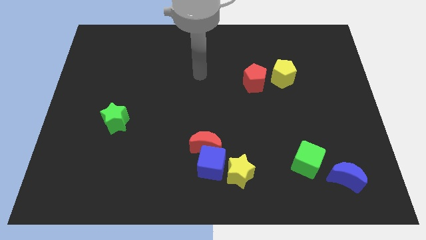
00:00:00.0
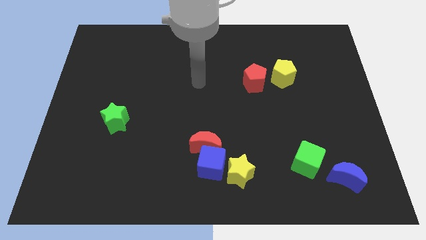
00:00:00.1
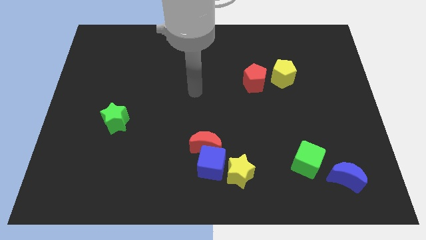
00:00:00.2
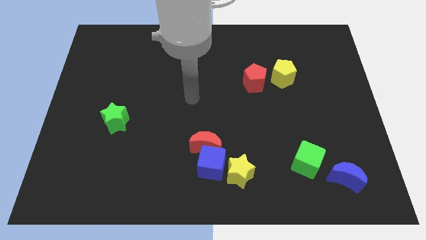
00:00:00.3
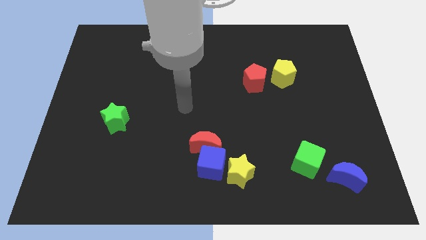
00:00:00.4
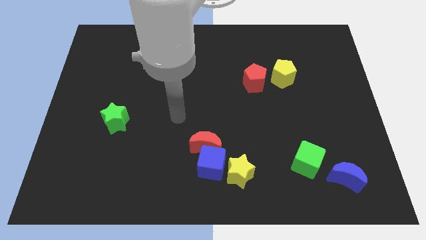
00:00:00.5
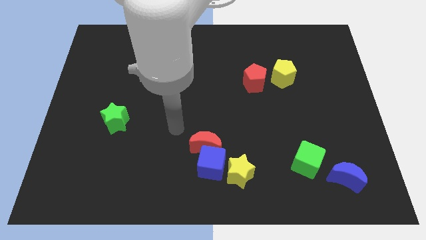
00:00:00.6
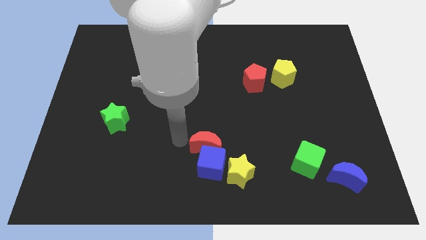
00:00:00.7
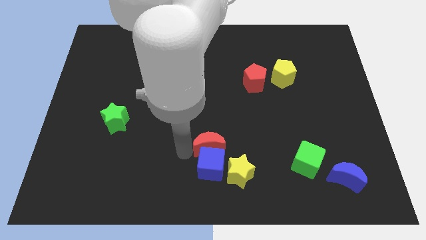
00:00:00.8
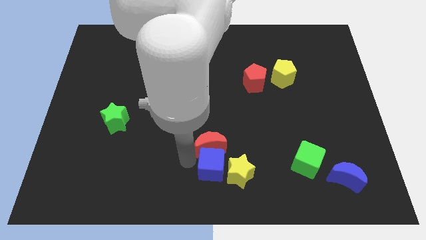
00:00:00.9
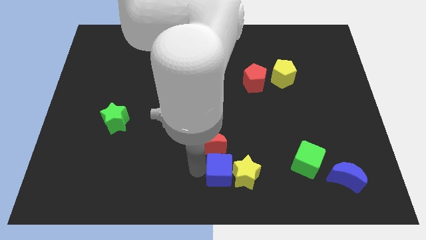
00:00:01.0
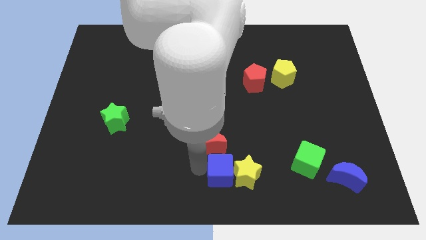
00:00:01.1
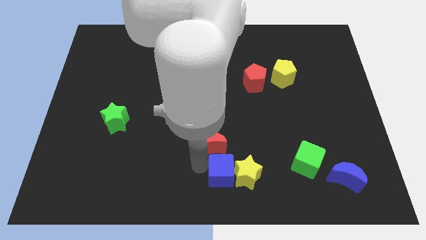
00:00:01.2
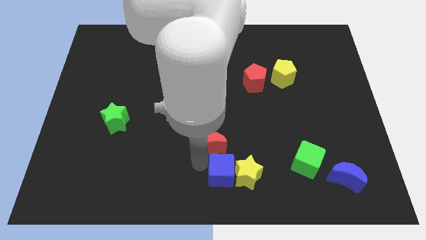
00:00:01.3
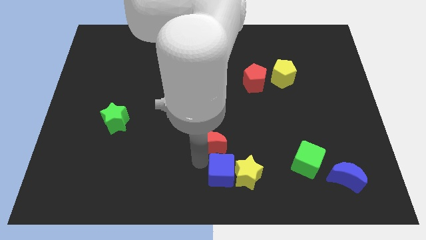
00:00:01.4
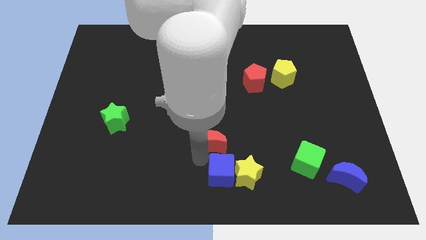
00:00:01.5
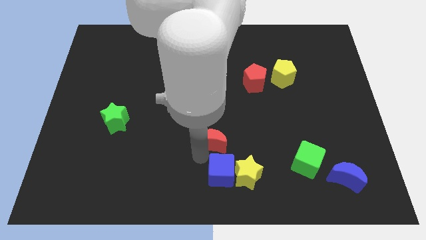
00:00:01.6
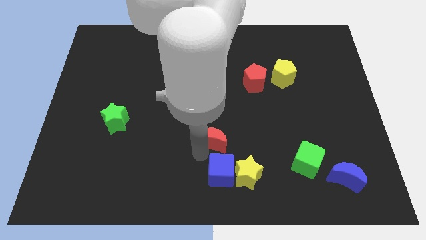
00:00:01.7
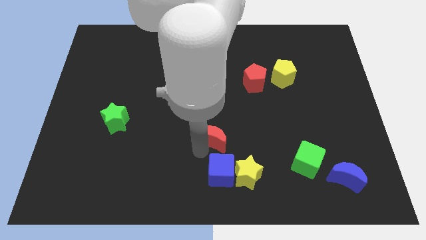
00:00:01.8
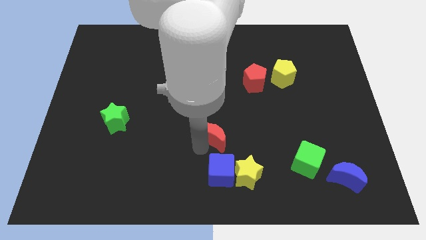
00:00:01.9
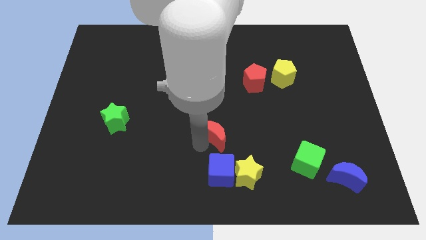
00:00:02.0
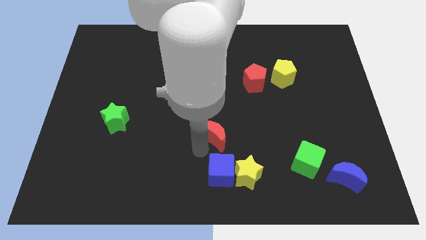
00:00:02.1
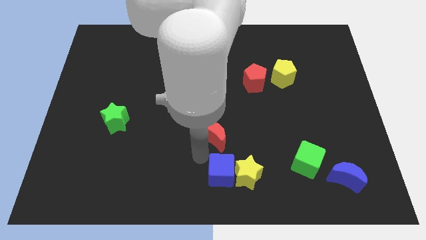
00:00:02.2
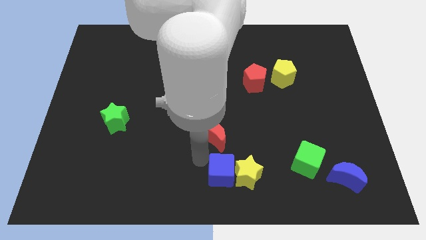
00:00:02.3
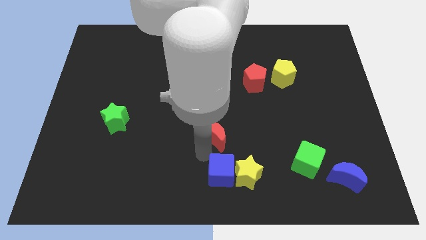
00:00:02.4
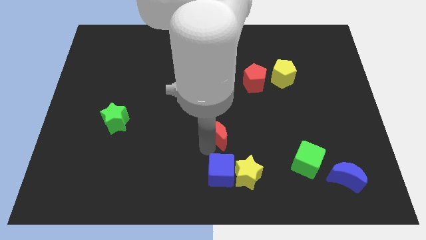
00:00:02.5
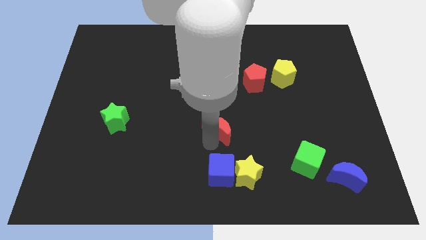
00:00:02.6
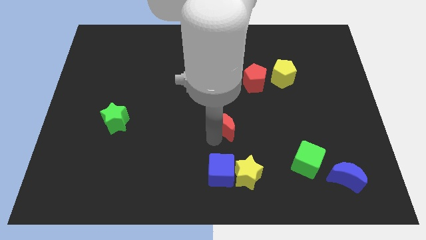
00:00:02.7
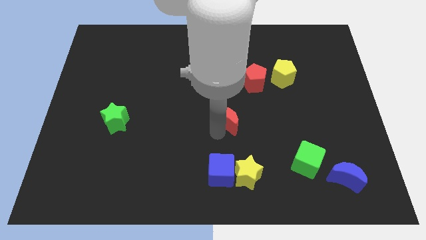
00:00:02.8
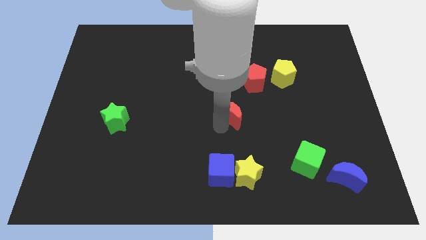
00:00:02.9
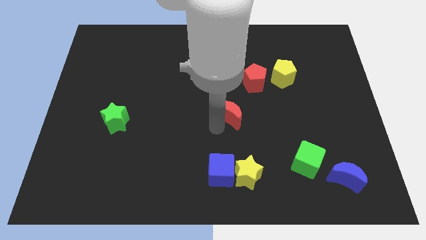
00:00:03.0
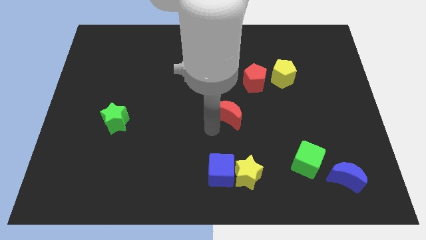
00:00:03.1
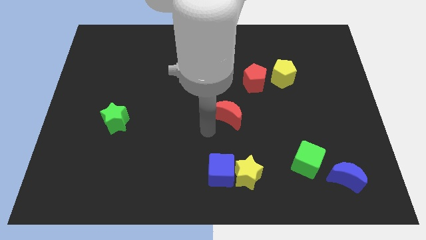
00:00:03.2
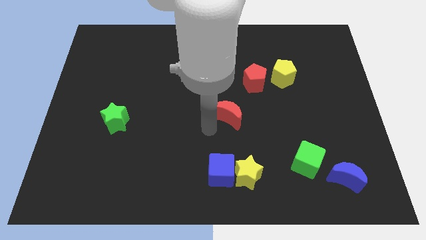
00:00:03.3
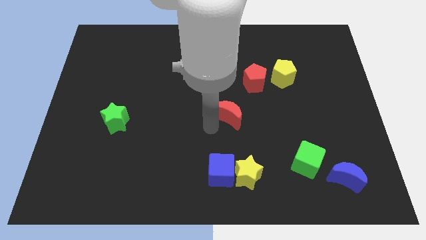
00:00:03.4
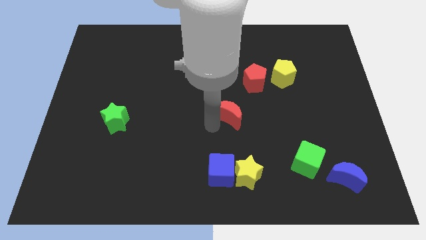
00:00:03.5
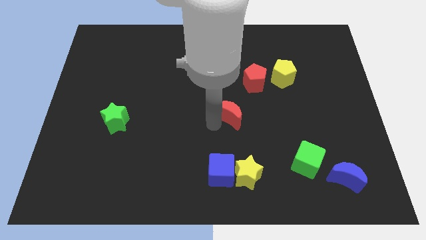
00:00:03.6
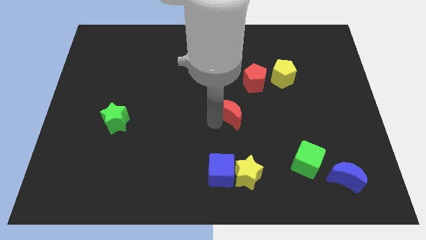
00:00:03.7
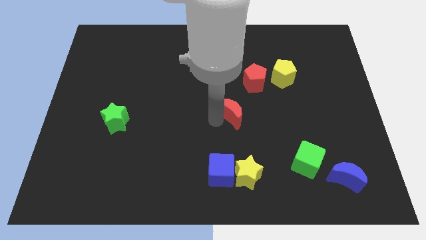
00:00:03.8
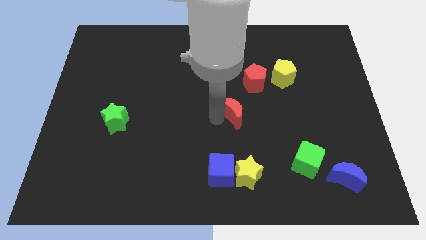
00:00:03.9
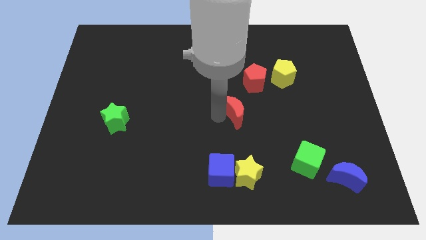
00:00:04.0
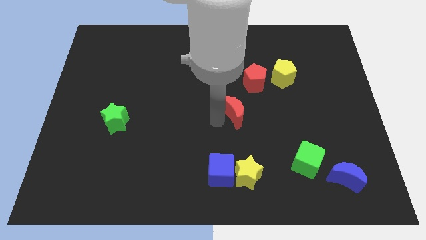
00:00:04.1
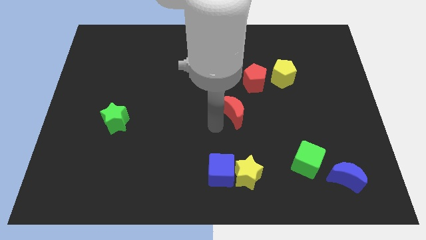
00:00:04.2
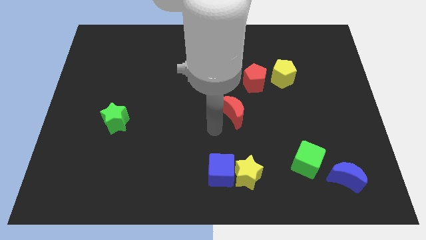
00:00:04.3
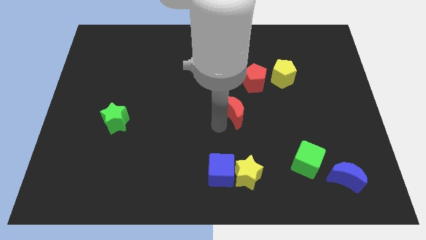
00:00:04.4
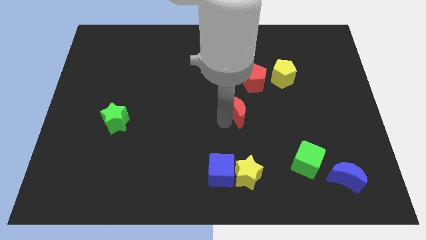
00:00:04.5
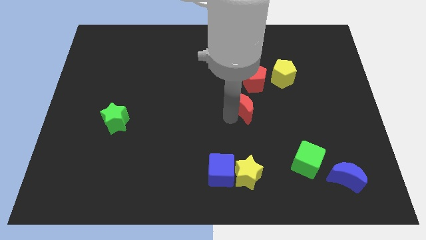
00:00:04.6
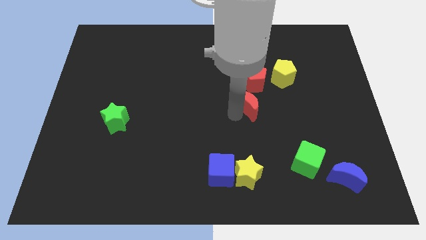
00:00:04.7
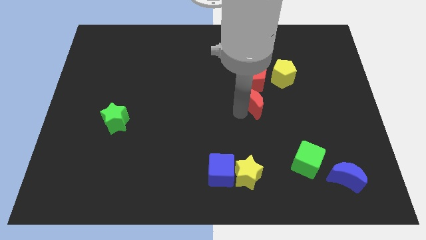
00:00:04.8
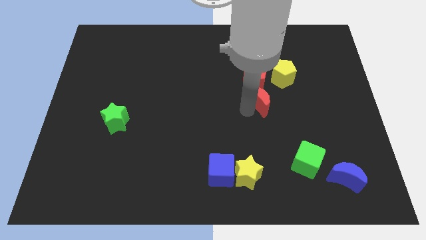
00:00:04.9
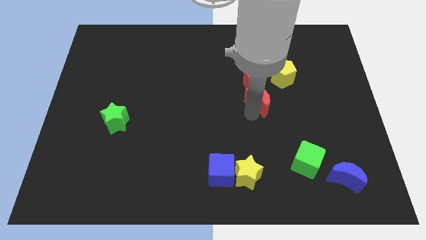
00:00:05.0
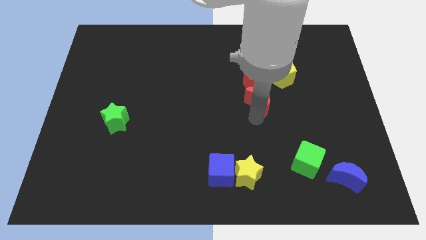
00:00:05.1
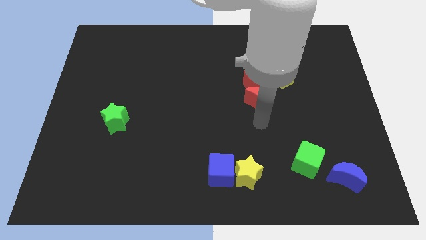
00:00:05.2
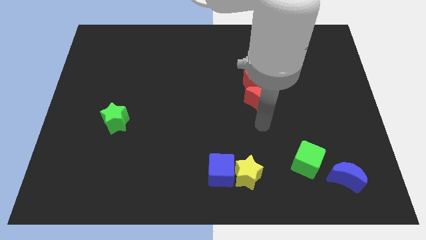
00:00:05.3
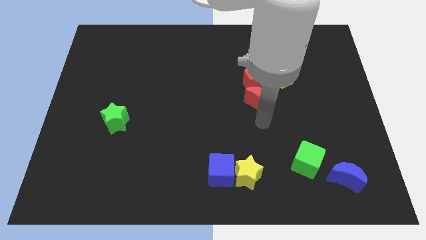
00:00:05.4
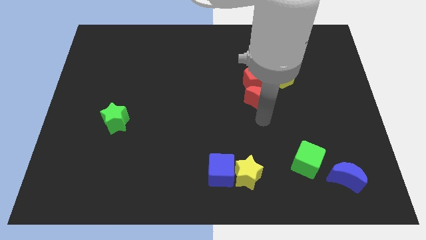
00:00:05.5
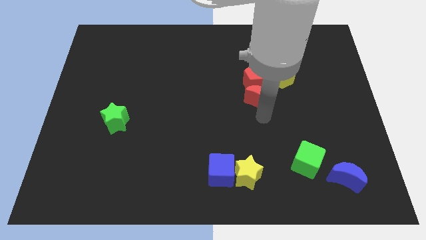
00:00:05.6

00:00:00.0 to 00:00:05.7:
move the red moon close to the red pentagon

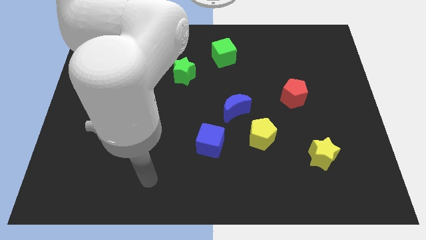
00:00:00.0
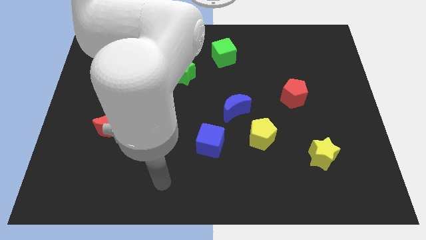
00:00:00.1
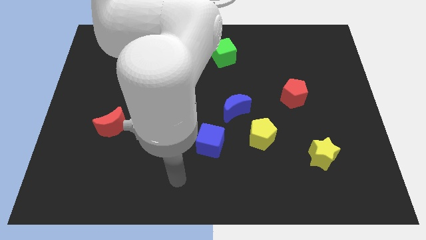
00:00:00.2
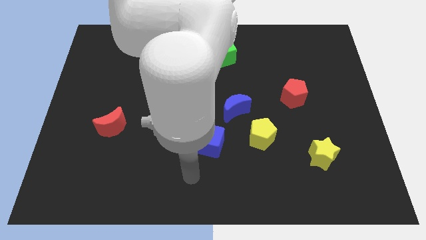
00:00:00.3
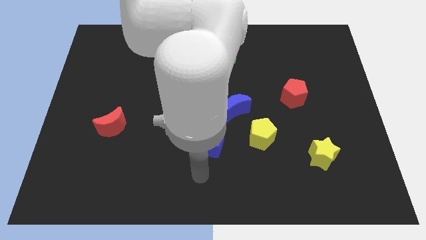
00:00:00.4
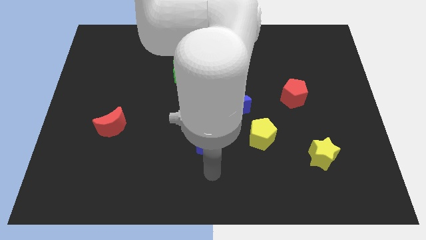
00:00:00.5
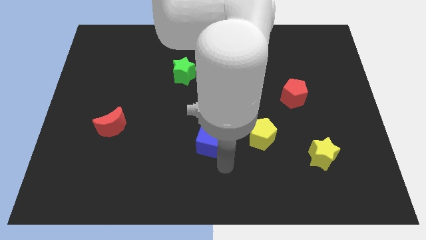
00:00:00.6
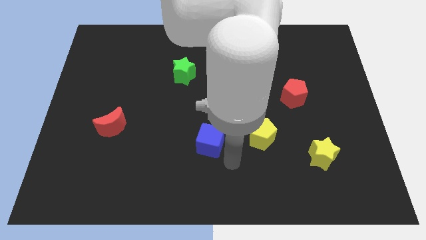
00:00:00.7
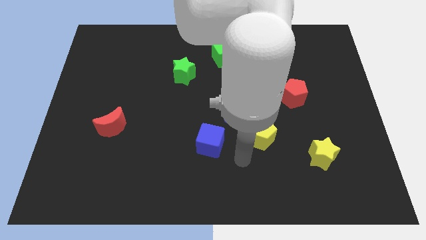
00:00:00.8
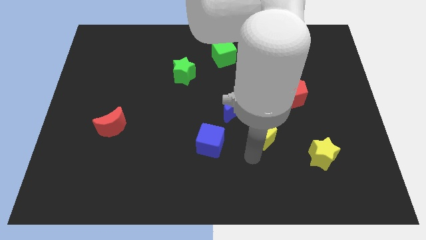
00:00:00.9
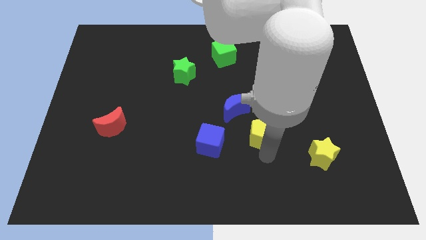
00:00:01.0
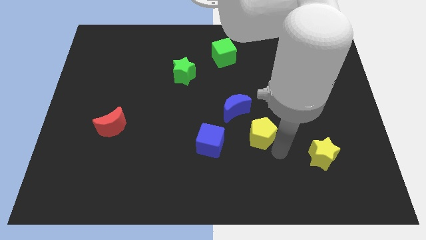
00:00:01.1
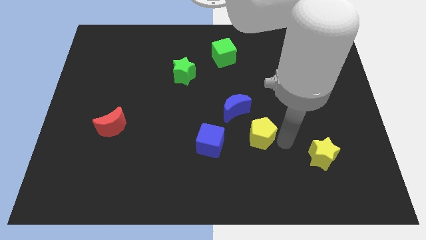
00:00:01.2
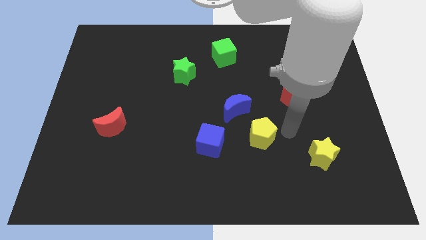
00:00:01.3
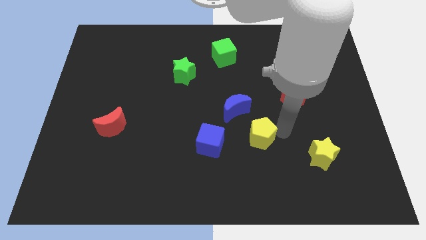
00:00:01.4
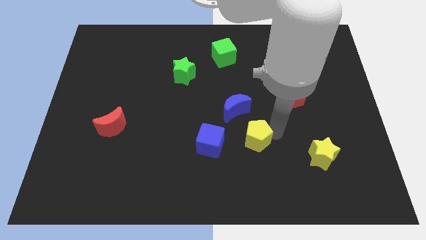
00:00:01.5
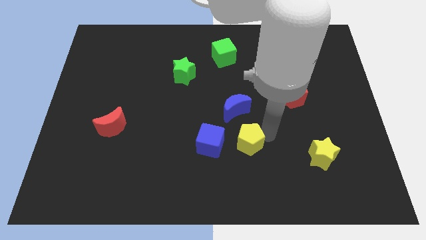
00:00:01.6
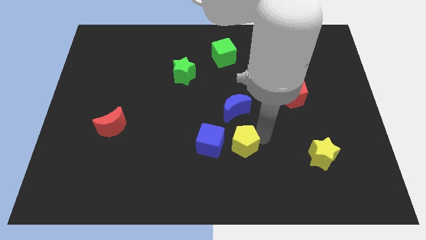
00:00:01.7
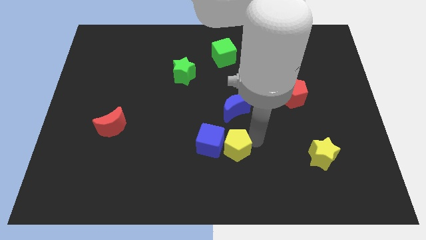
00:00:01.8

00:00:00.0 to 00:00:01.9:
move the yellow pentagon towards the blue cube
